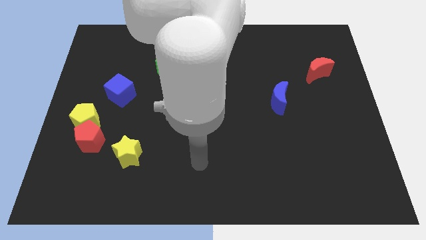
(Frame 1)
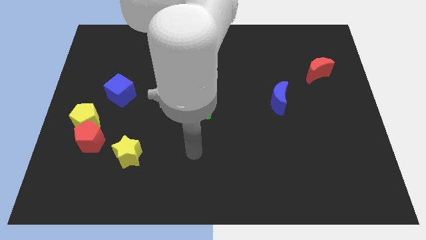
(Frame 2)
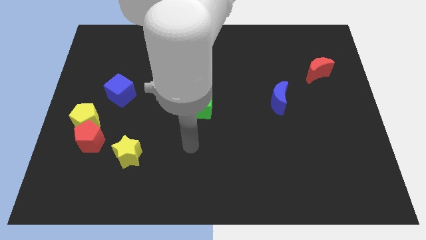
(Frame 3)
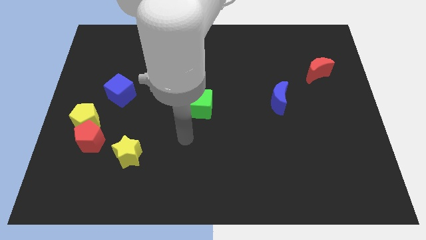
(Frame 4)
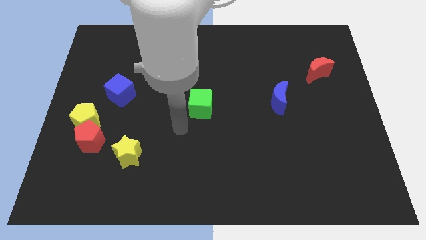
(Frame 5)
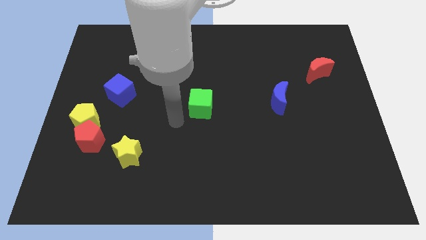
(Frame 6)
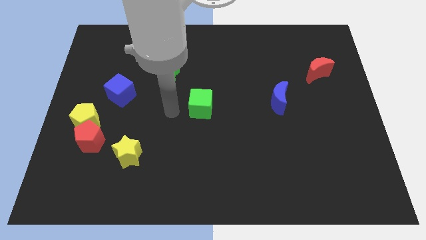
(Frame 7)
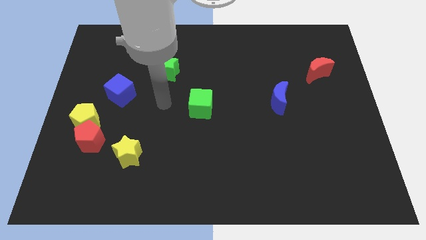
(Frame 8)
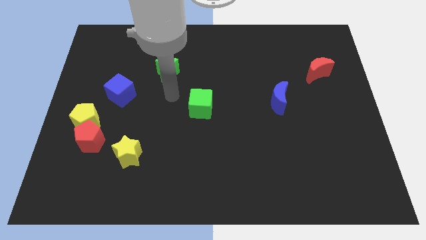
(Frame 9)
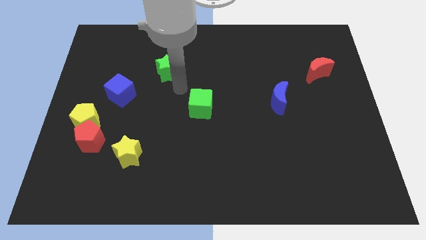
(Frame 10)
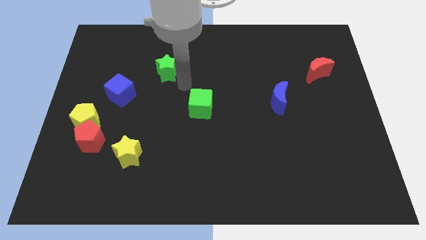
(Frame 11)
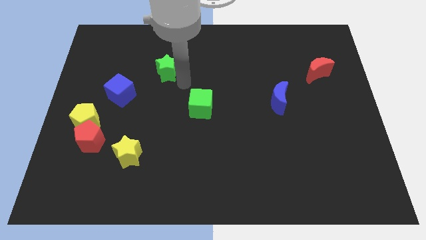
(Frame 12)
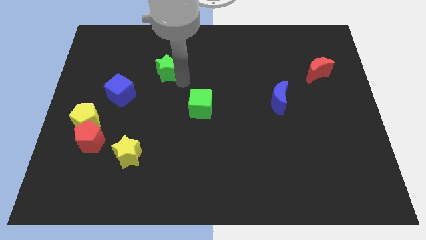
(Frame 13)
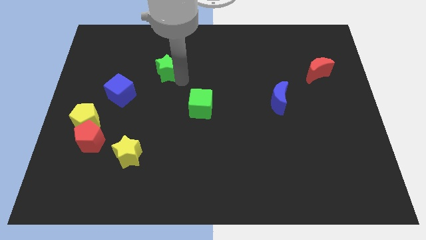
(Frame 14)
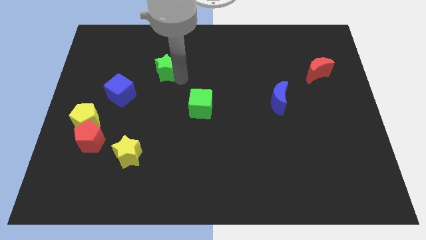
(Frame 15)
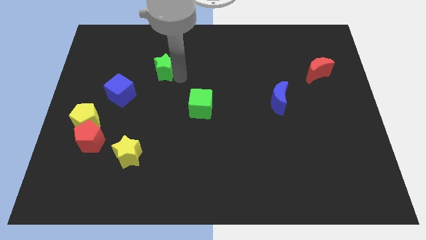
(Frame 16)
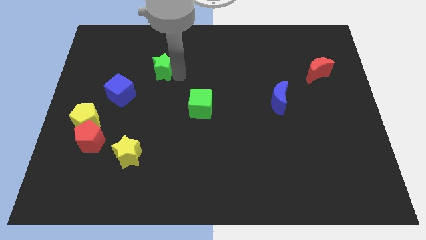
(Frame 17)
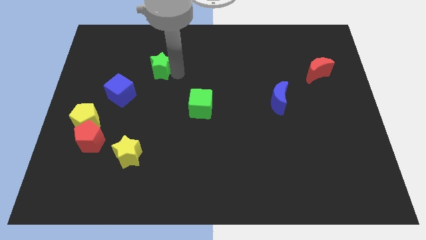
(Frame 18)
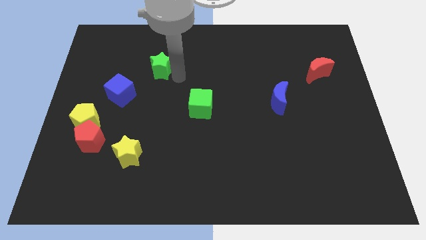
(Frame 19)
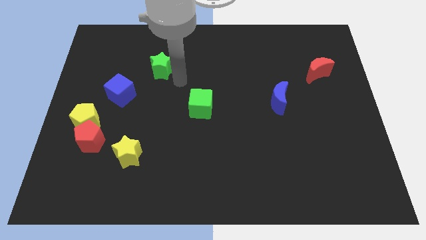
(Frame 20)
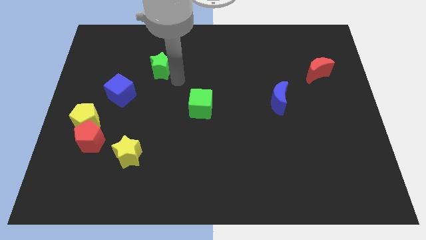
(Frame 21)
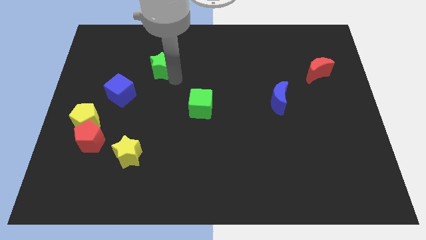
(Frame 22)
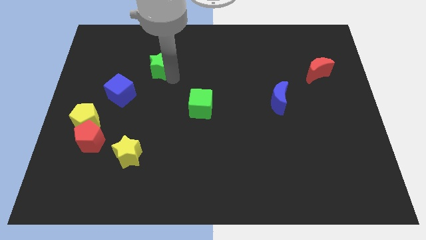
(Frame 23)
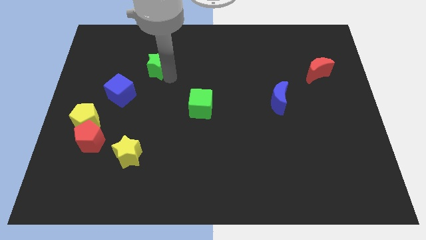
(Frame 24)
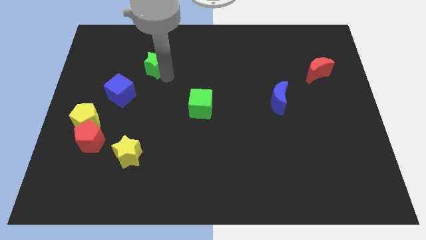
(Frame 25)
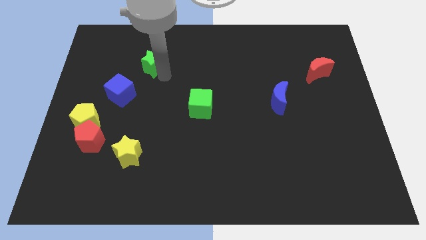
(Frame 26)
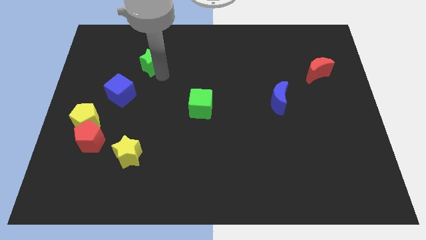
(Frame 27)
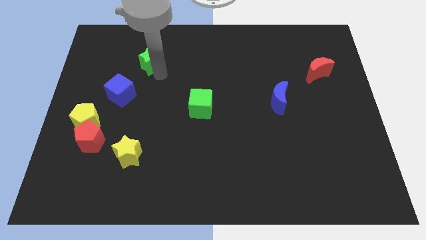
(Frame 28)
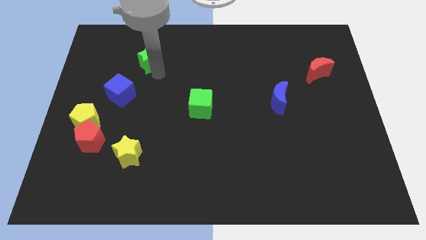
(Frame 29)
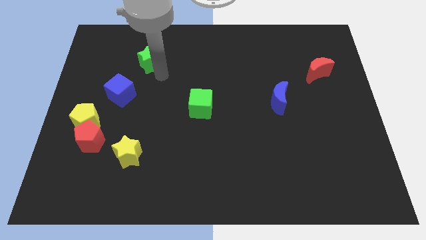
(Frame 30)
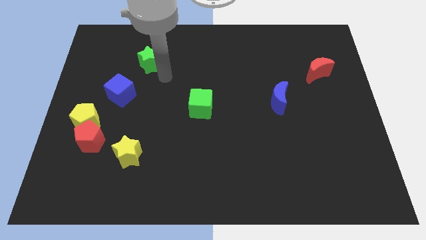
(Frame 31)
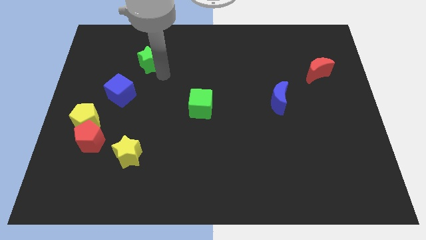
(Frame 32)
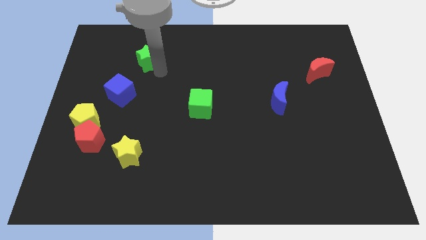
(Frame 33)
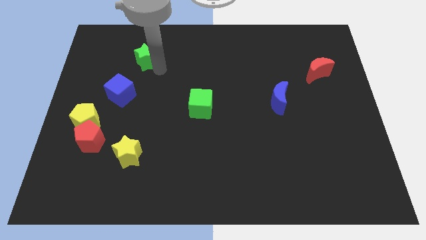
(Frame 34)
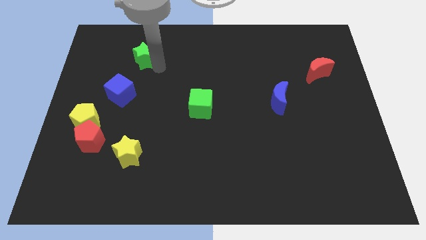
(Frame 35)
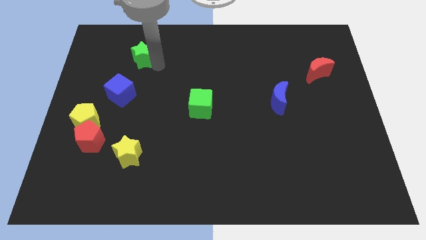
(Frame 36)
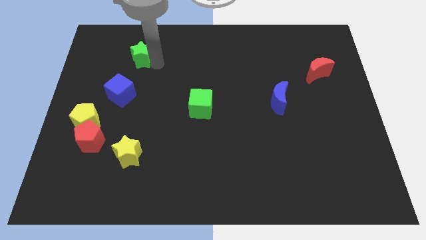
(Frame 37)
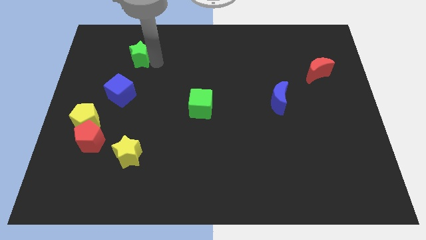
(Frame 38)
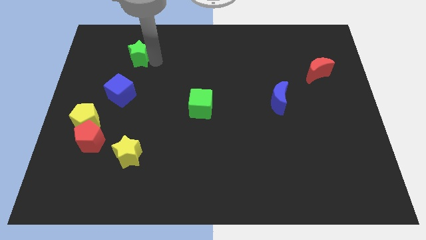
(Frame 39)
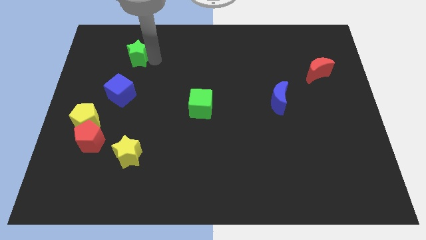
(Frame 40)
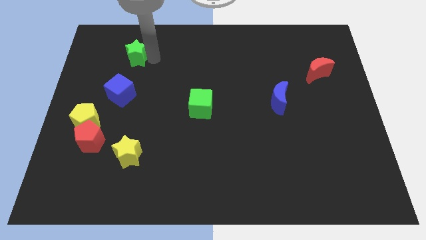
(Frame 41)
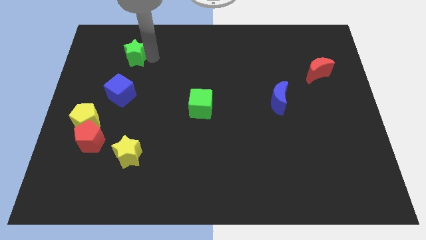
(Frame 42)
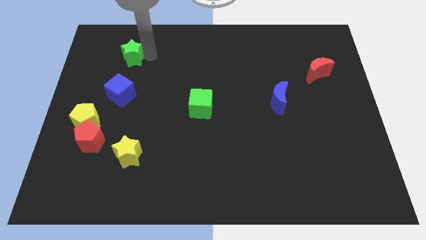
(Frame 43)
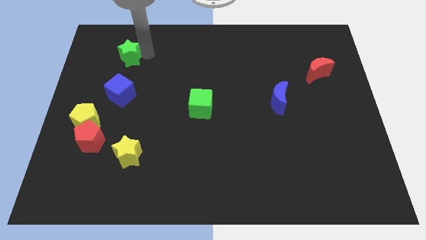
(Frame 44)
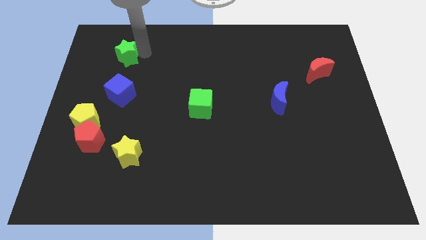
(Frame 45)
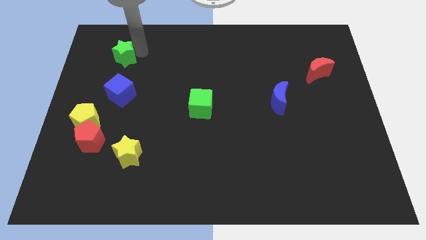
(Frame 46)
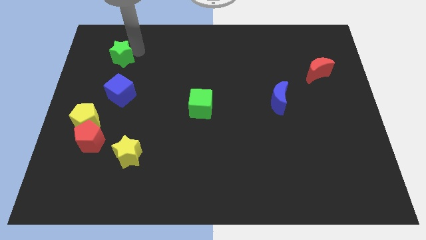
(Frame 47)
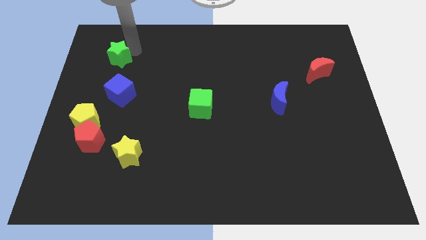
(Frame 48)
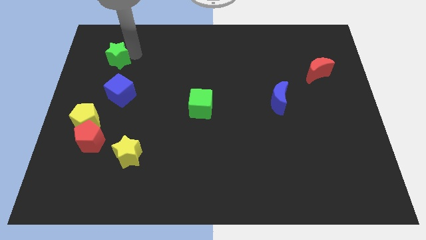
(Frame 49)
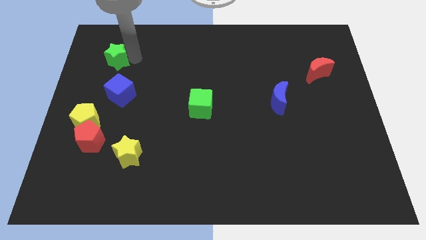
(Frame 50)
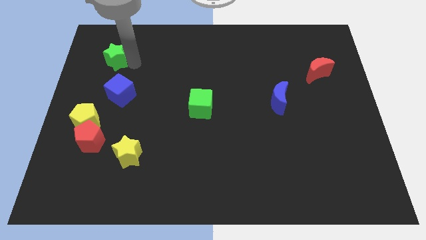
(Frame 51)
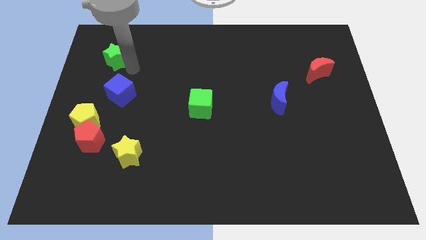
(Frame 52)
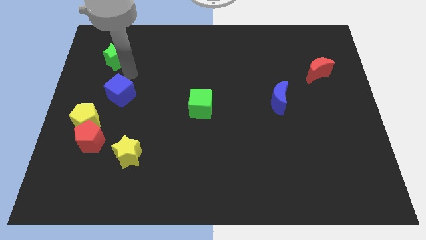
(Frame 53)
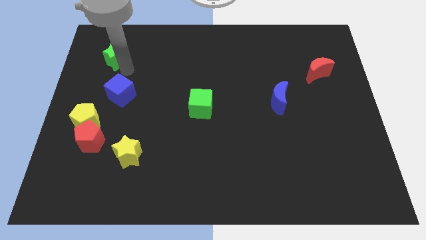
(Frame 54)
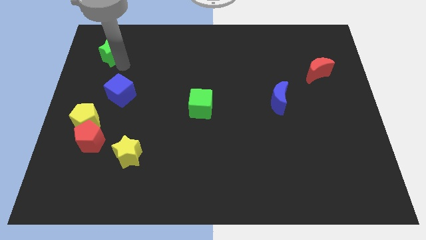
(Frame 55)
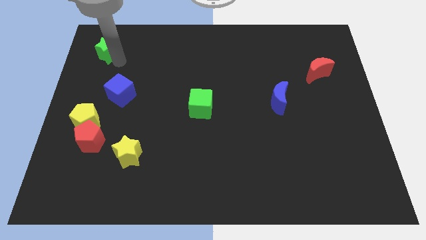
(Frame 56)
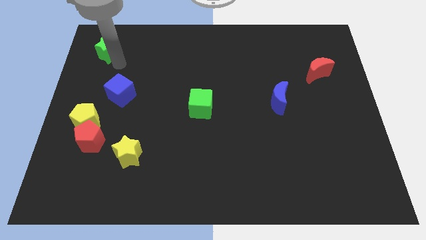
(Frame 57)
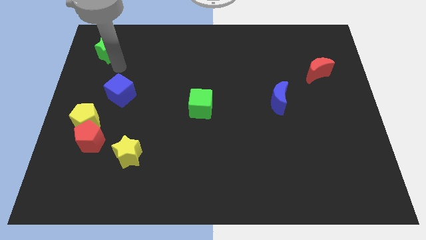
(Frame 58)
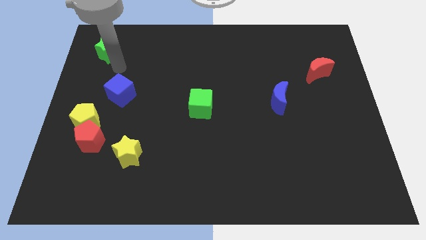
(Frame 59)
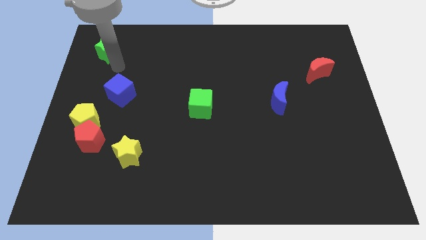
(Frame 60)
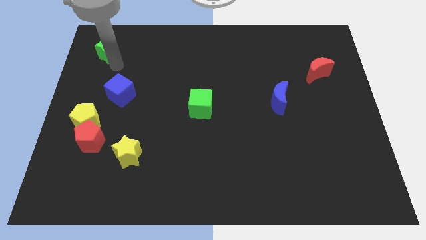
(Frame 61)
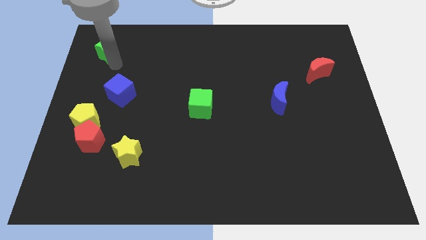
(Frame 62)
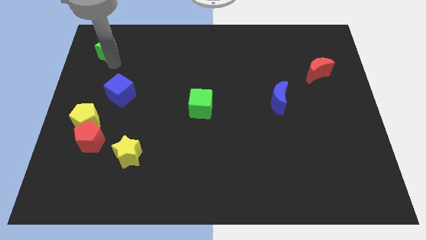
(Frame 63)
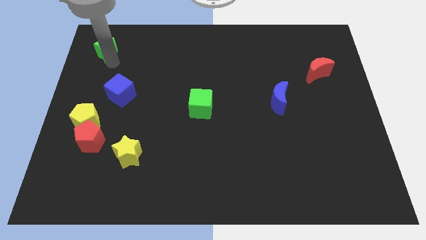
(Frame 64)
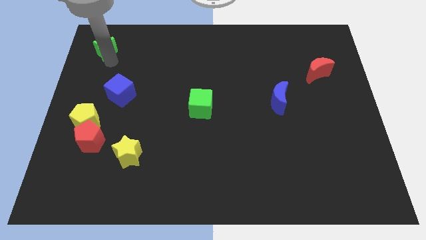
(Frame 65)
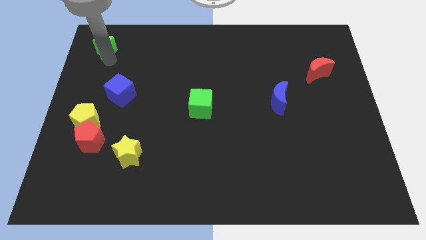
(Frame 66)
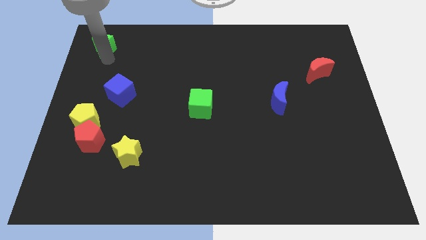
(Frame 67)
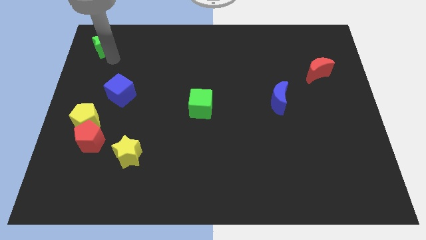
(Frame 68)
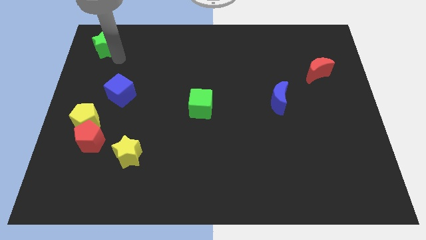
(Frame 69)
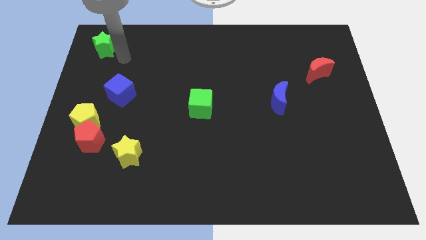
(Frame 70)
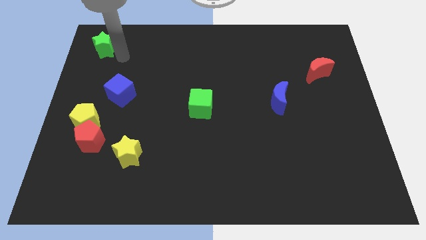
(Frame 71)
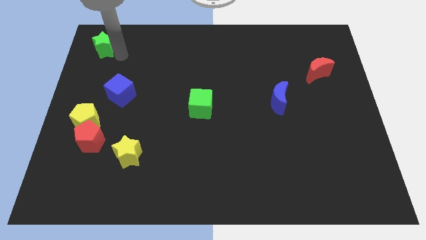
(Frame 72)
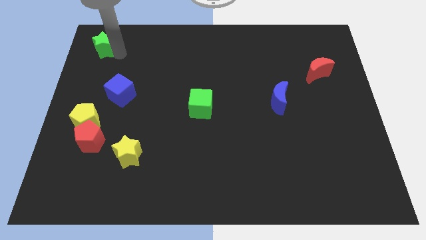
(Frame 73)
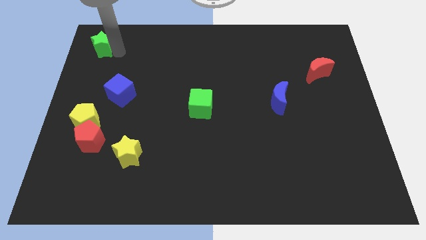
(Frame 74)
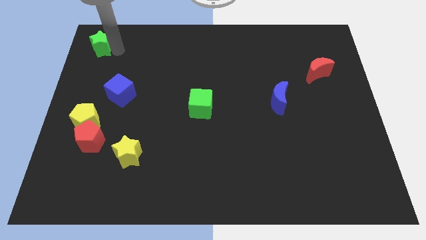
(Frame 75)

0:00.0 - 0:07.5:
push the green star to the top left of the board
